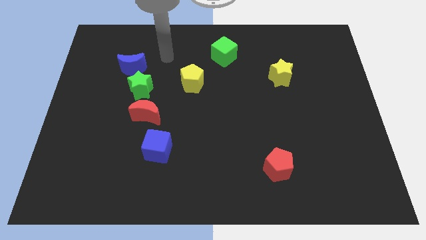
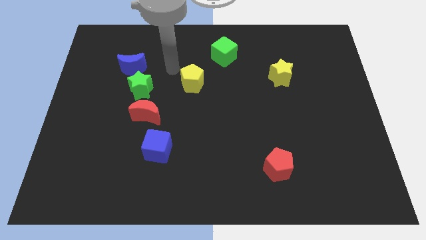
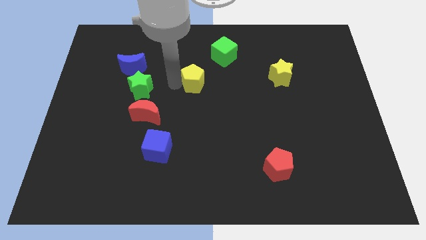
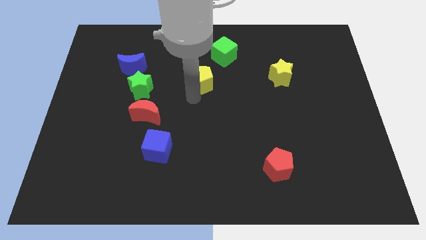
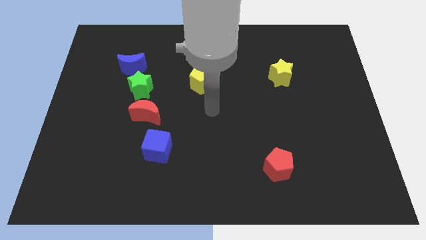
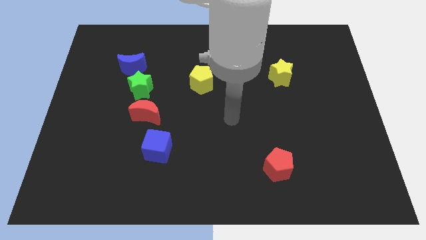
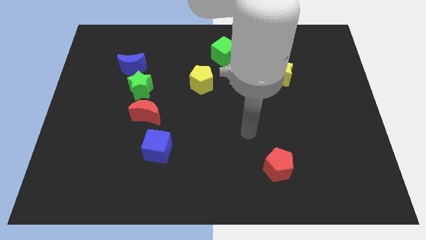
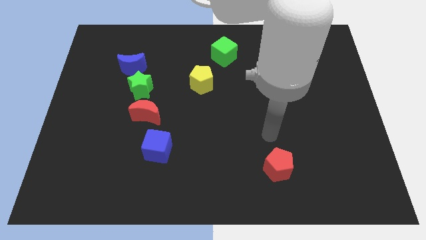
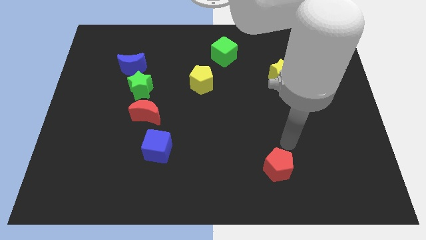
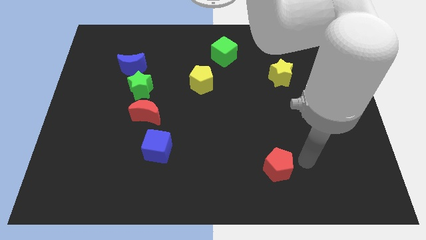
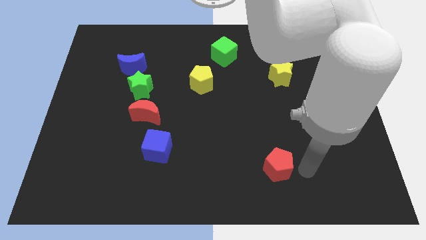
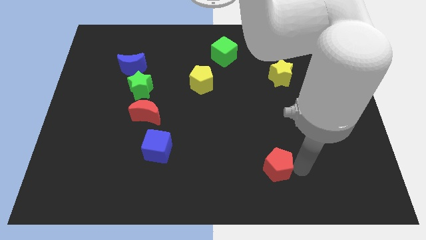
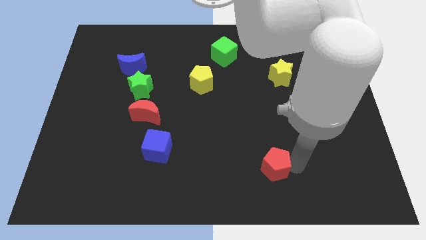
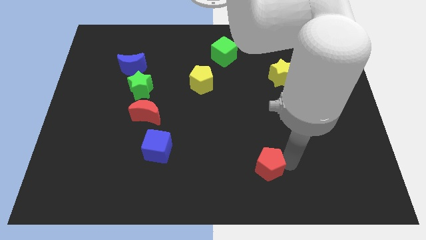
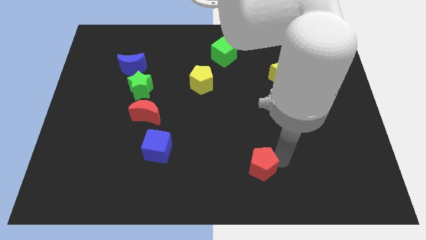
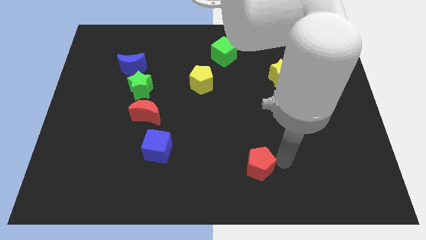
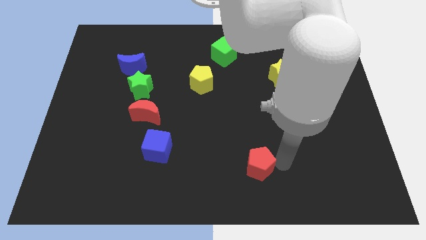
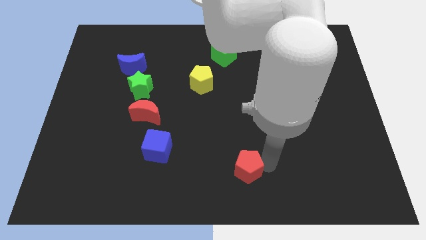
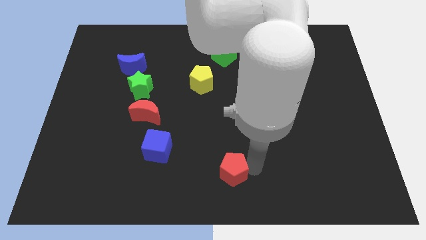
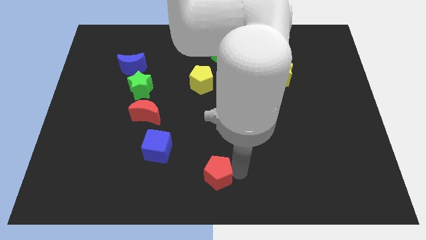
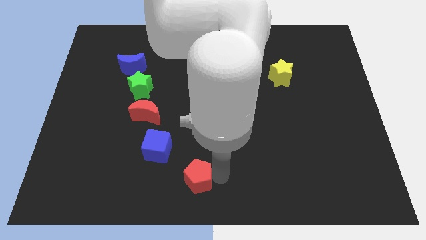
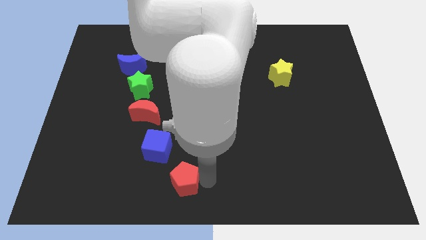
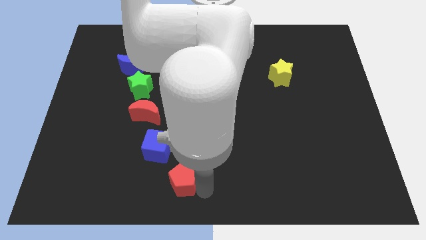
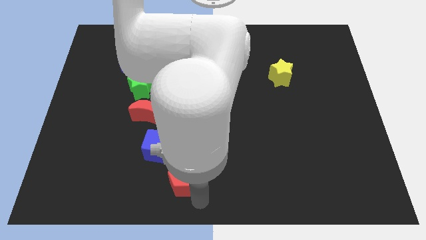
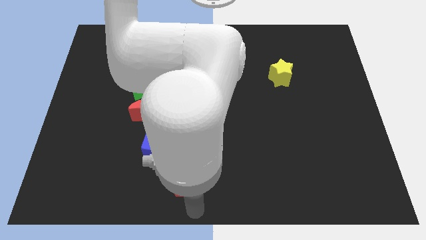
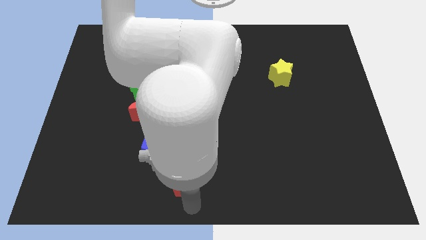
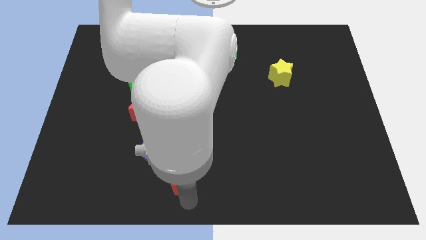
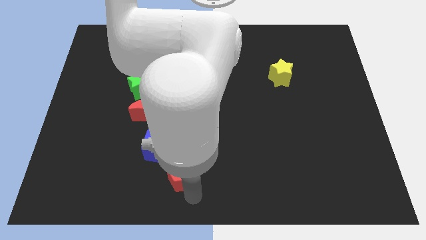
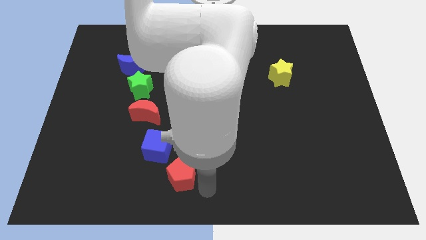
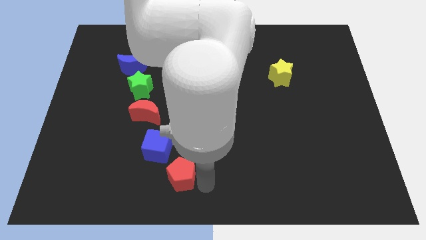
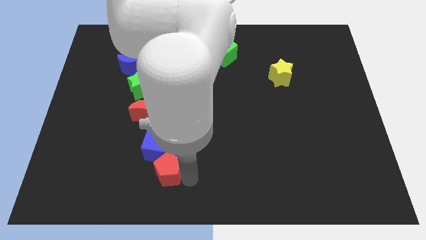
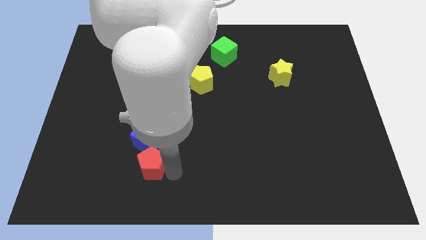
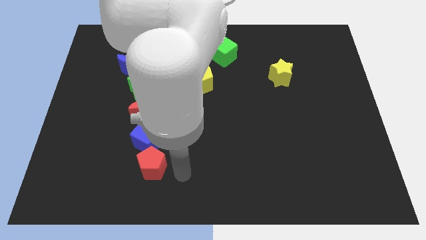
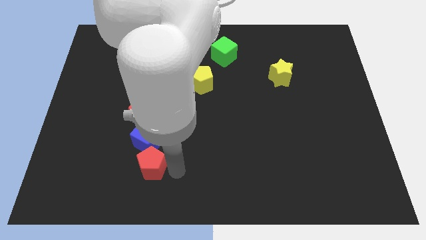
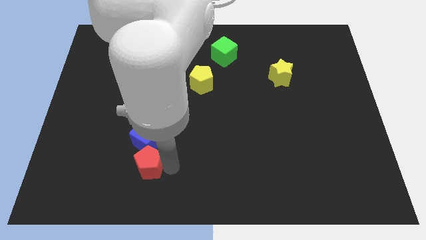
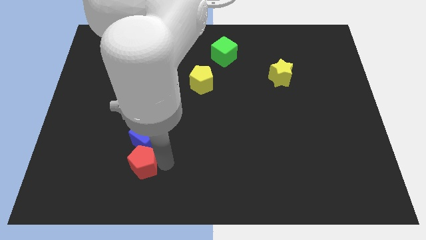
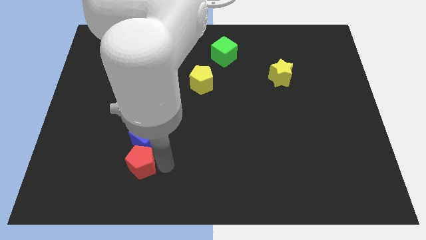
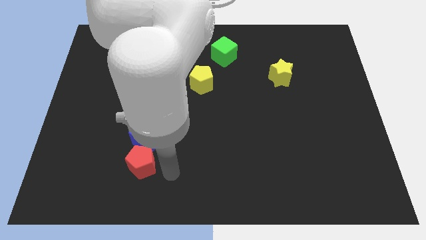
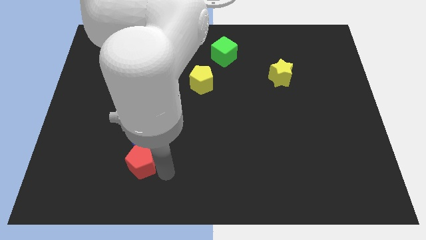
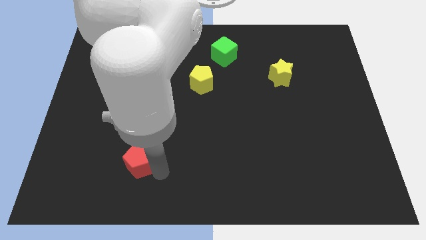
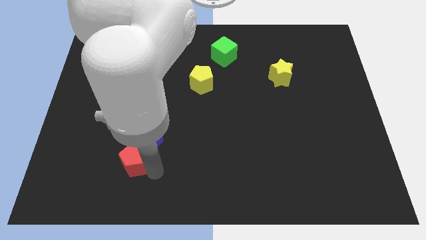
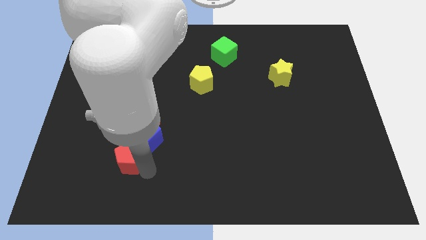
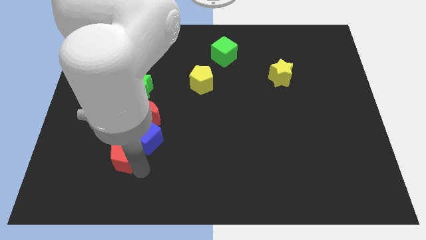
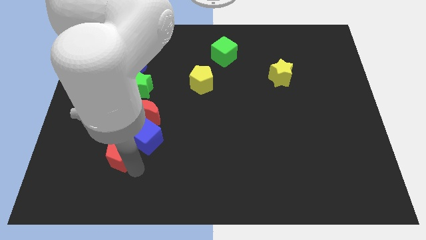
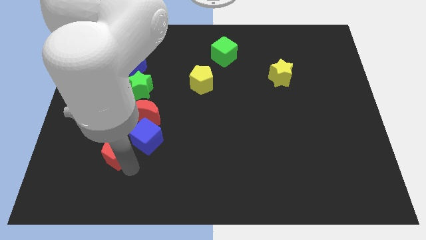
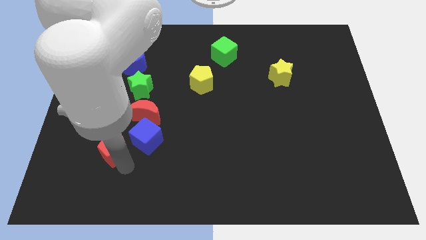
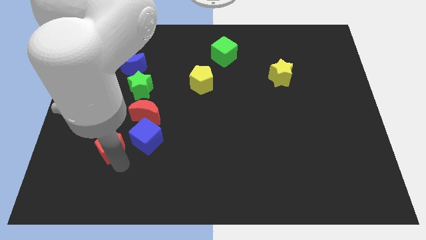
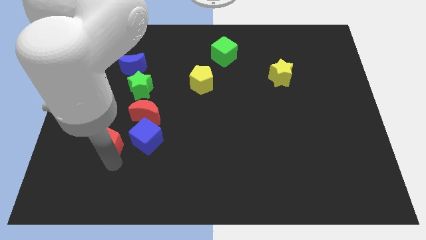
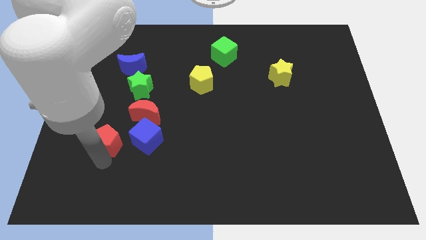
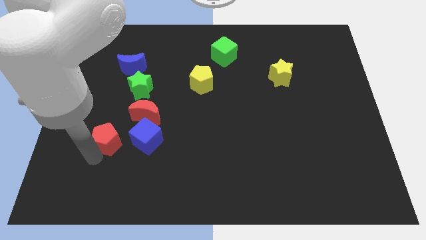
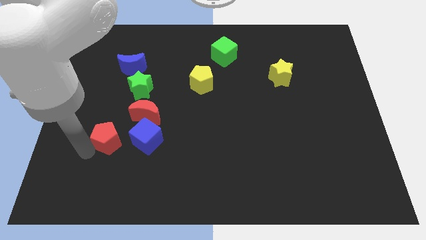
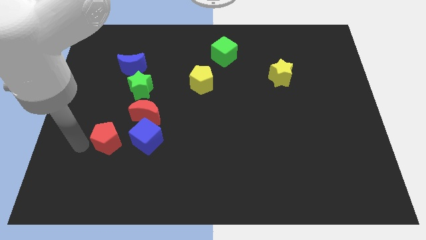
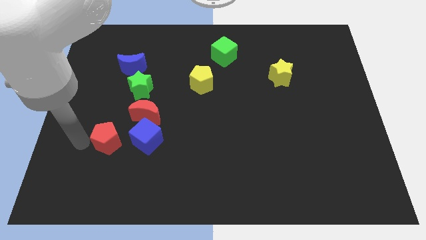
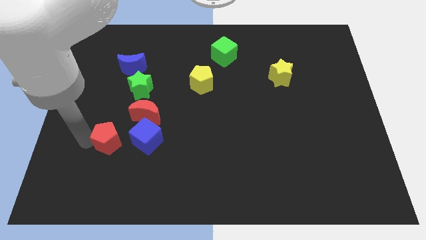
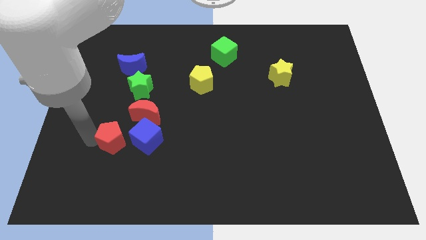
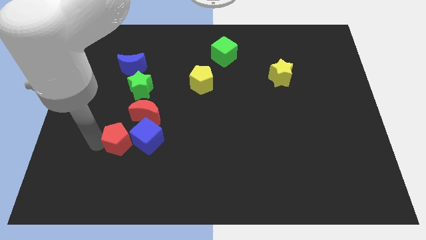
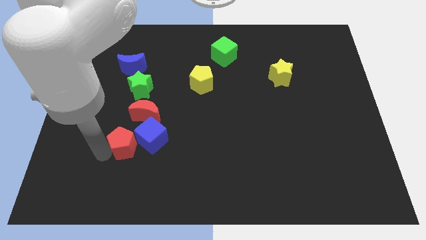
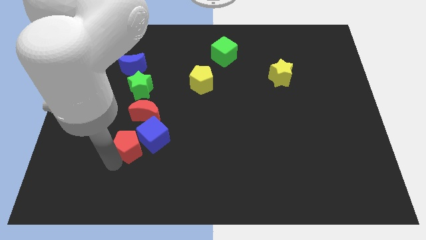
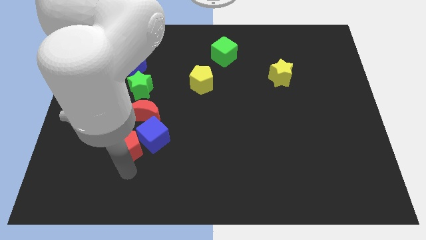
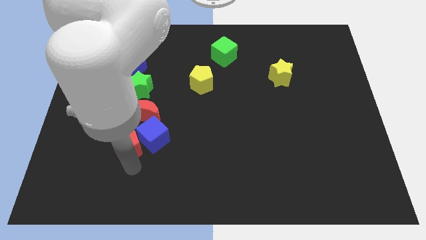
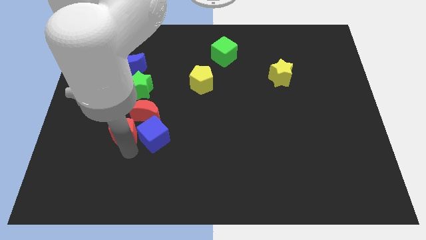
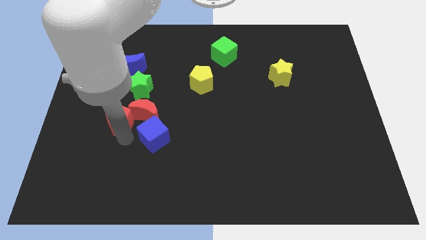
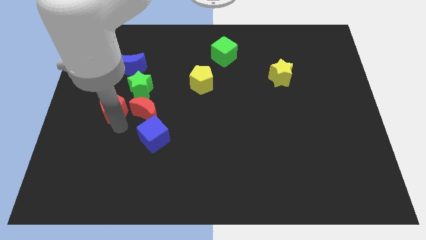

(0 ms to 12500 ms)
move the red pentagon diagonally up and to the left of the red moon

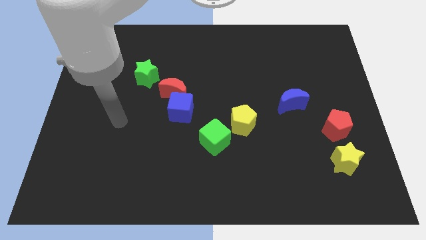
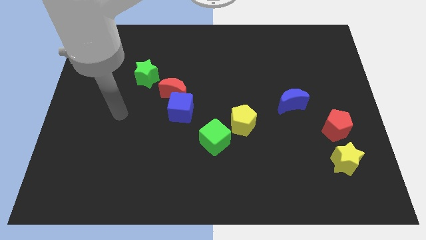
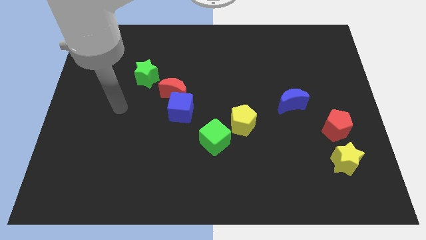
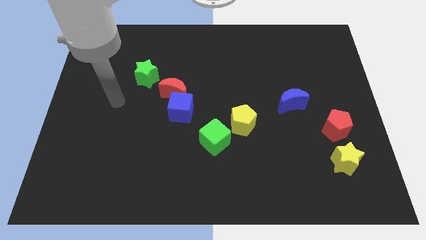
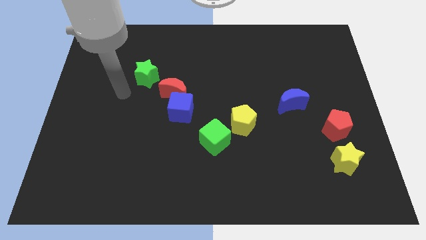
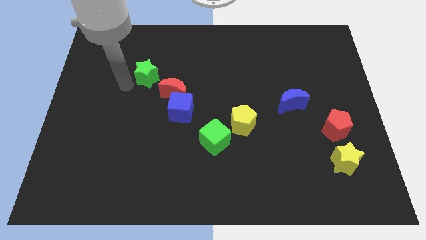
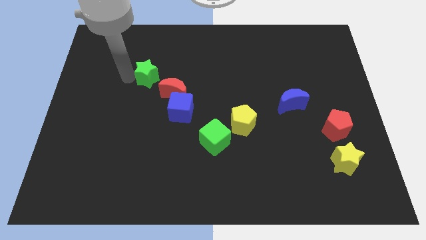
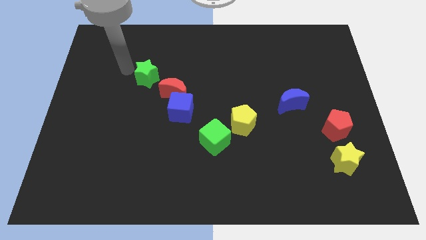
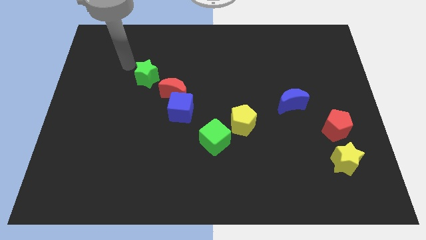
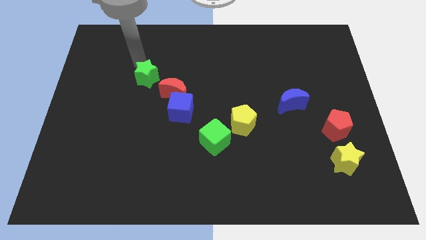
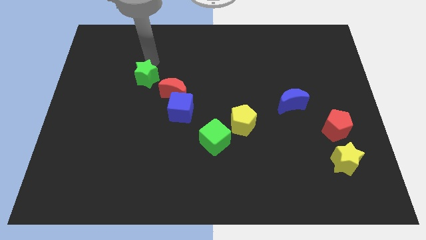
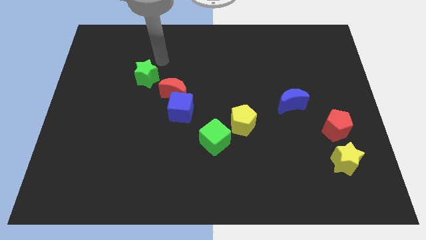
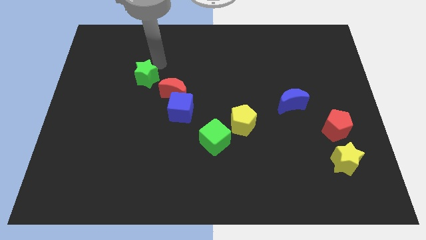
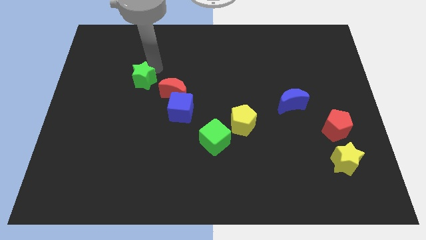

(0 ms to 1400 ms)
move the green star left of the red moon

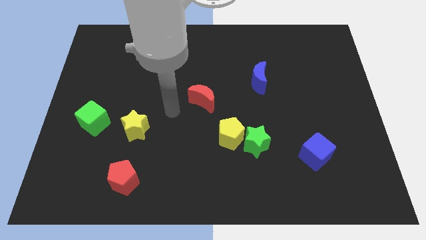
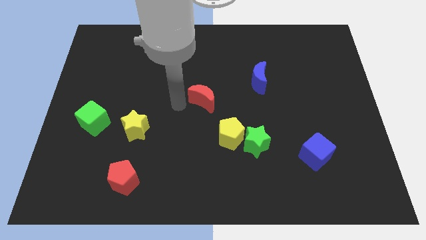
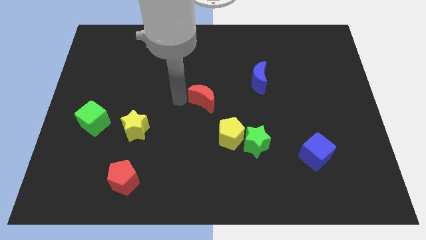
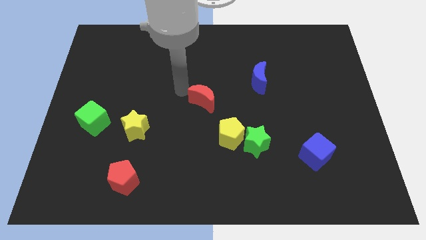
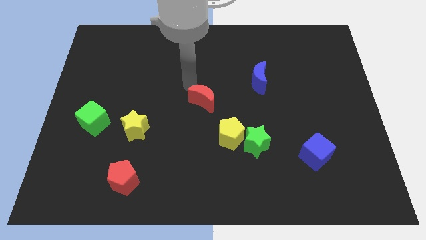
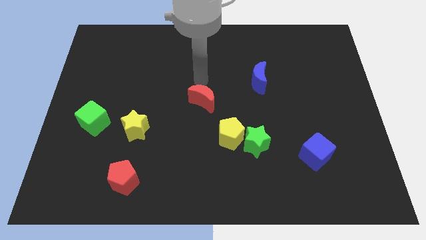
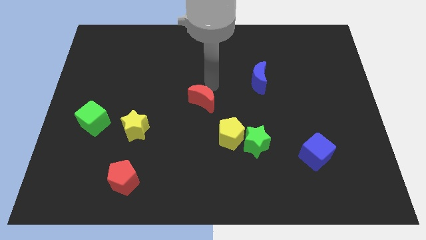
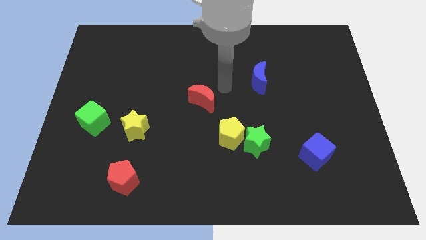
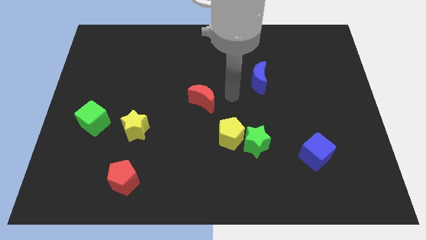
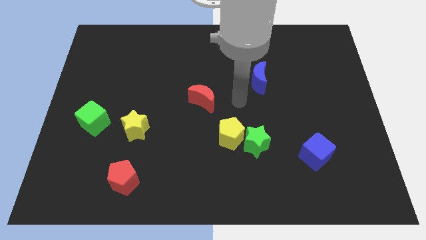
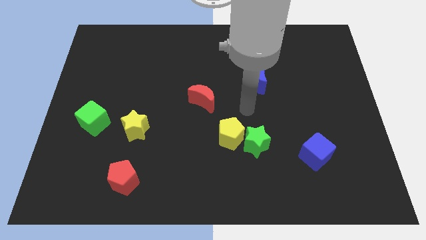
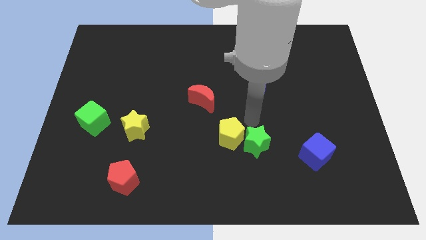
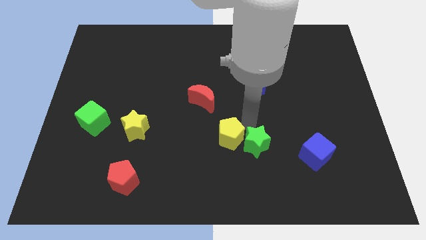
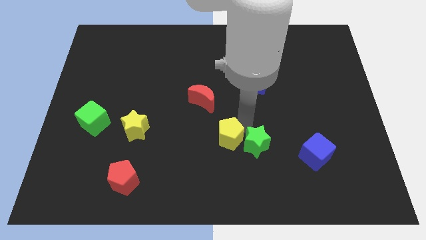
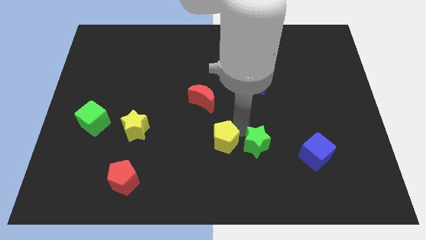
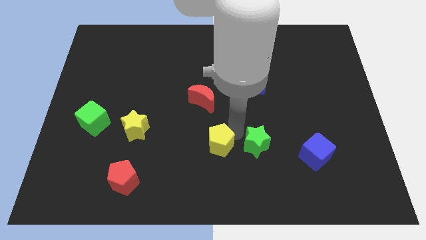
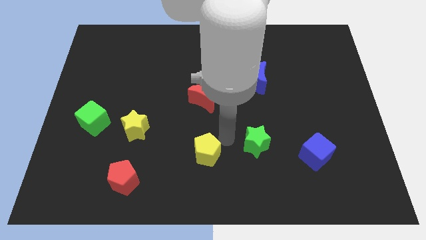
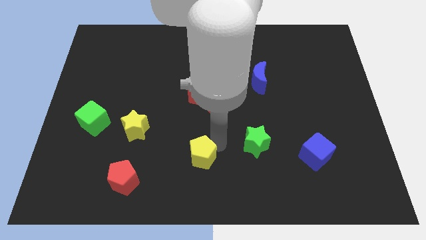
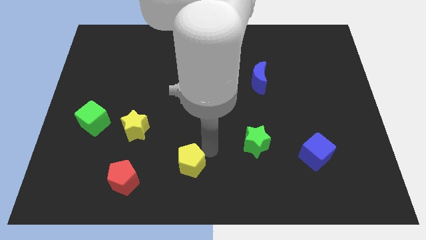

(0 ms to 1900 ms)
put the yellow pentagon to the right side of the red pentagon
